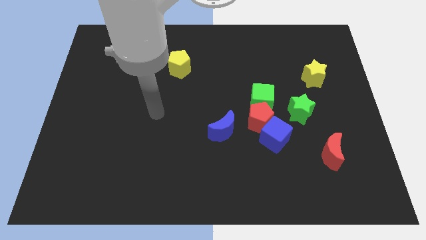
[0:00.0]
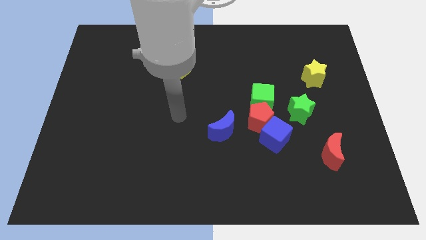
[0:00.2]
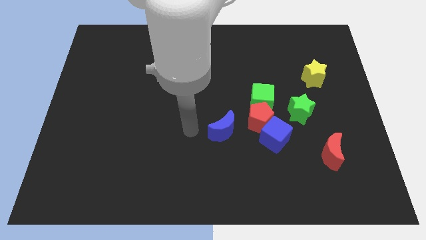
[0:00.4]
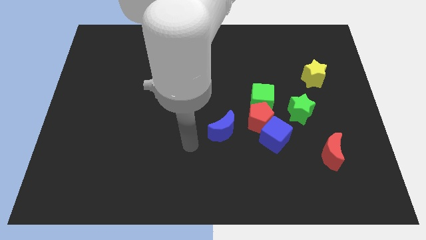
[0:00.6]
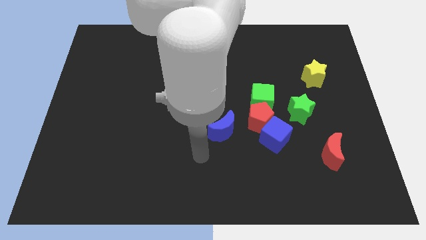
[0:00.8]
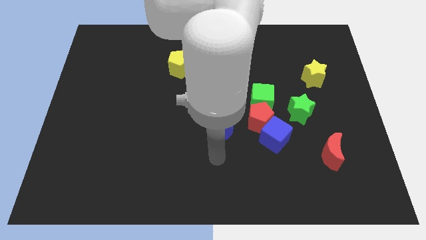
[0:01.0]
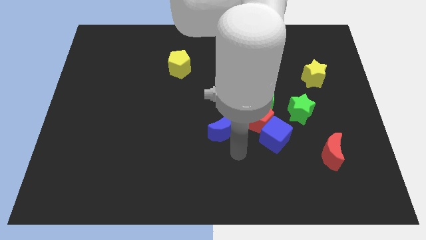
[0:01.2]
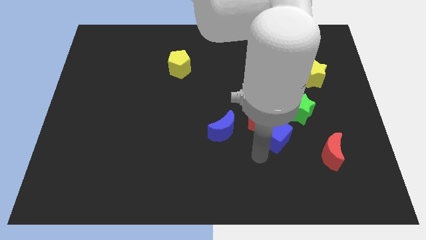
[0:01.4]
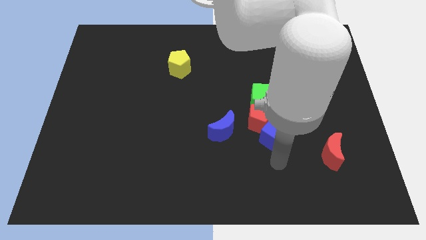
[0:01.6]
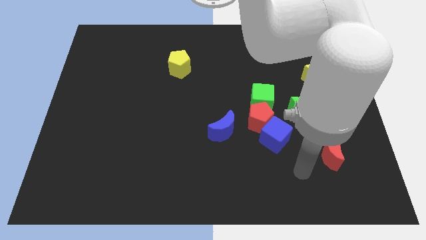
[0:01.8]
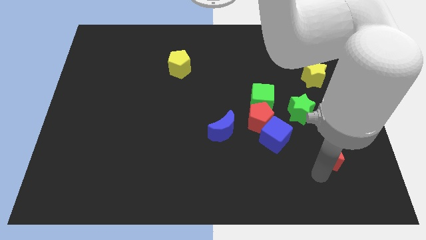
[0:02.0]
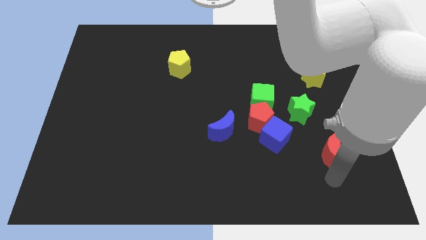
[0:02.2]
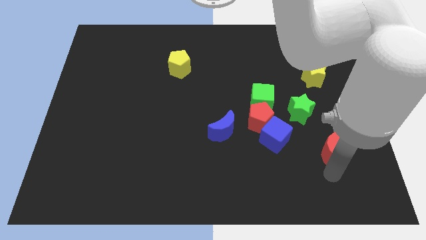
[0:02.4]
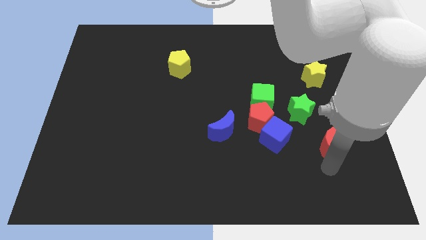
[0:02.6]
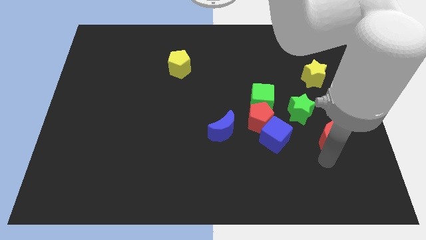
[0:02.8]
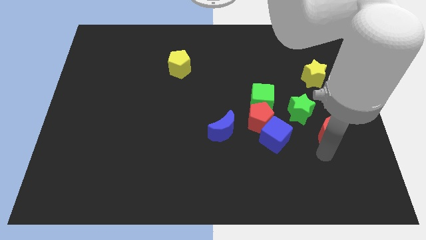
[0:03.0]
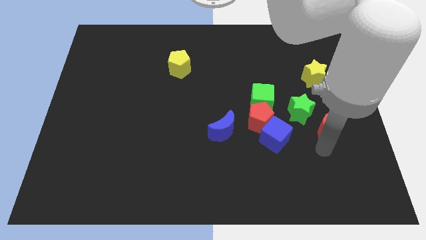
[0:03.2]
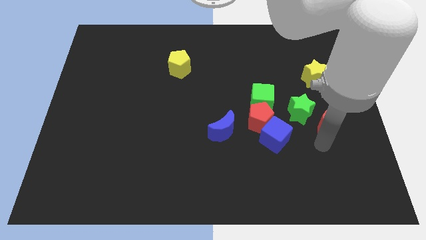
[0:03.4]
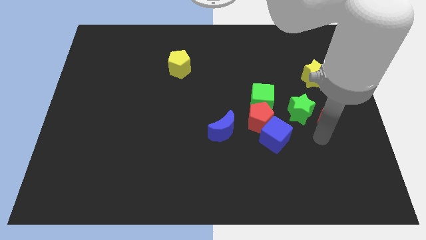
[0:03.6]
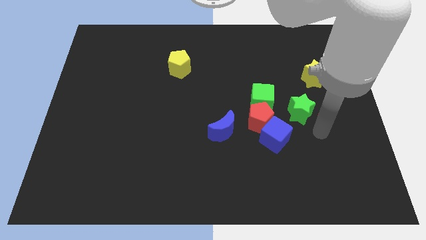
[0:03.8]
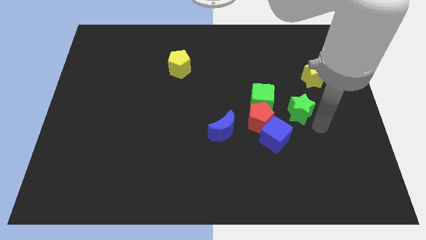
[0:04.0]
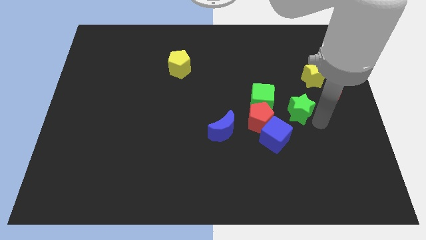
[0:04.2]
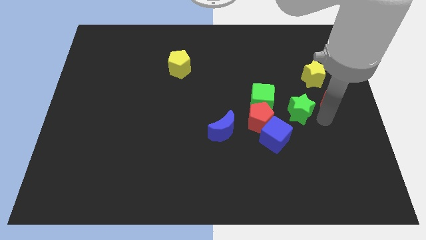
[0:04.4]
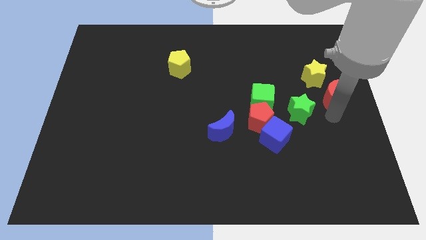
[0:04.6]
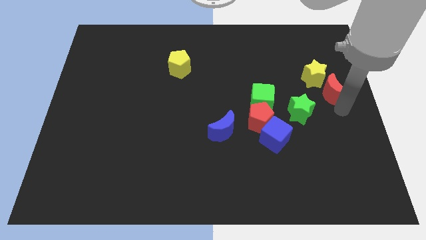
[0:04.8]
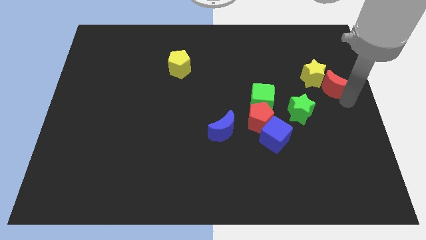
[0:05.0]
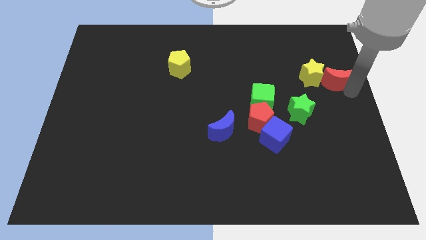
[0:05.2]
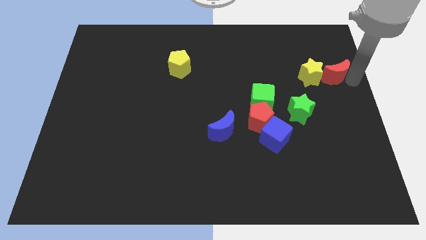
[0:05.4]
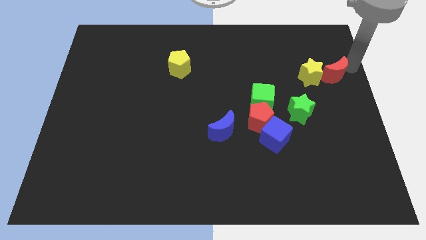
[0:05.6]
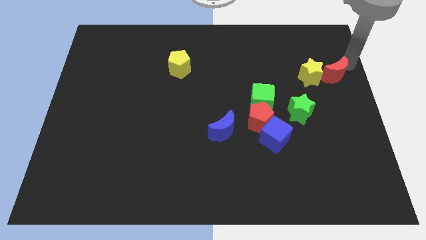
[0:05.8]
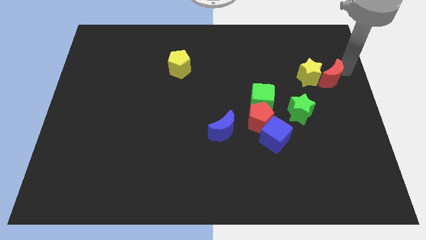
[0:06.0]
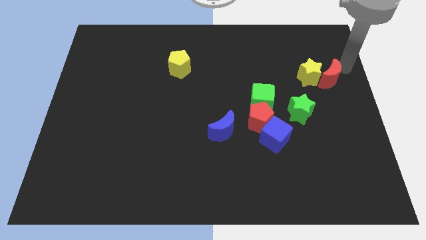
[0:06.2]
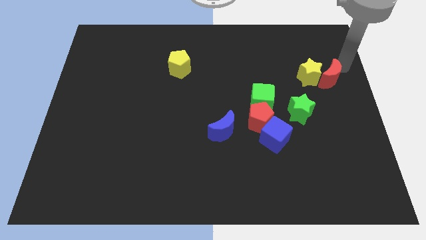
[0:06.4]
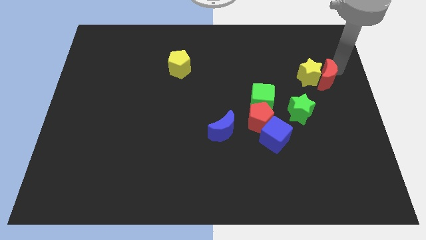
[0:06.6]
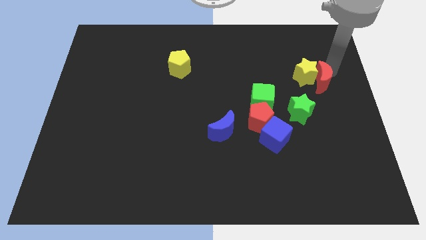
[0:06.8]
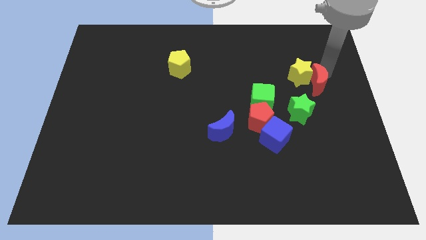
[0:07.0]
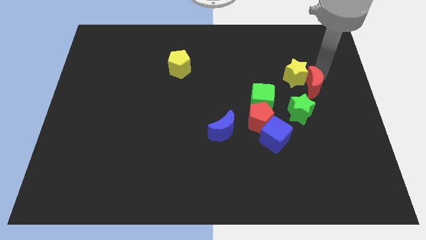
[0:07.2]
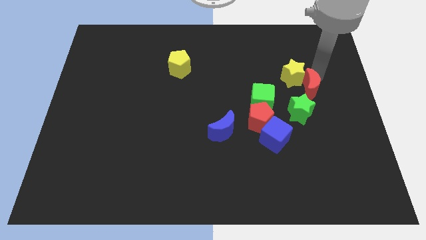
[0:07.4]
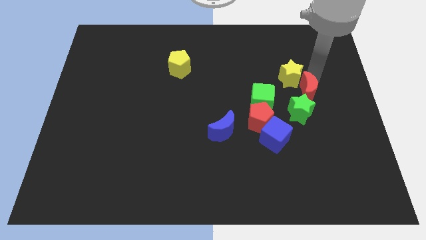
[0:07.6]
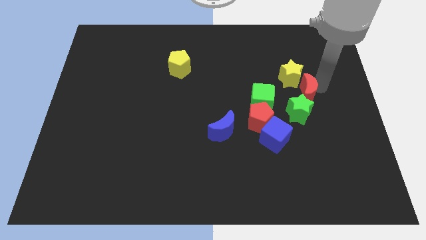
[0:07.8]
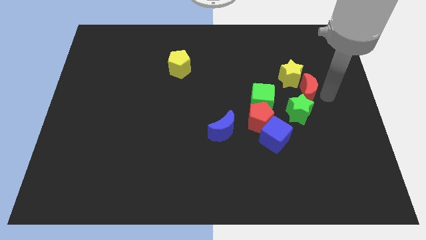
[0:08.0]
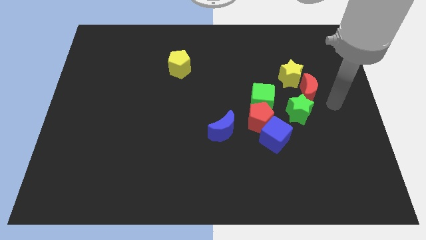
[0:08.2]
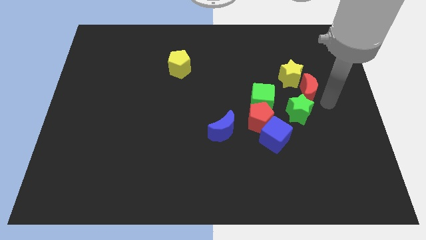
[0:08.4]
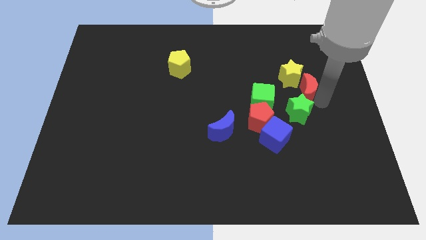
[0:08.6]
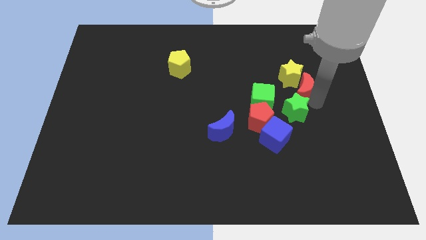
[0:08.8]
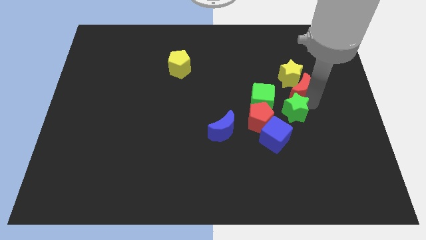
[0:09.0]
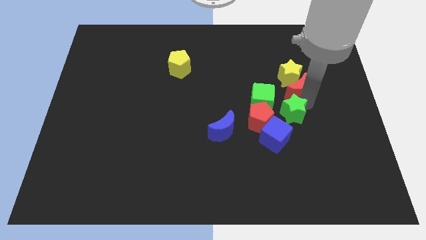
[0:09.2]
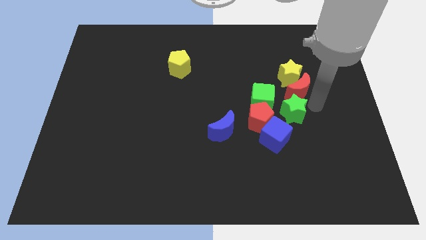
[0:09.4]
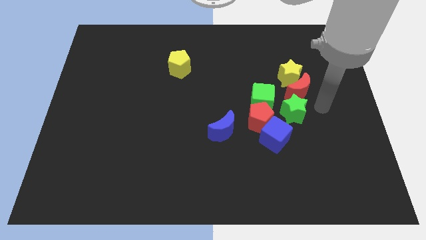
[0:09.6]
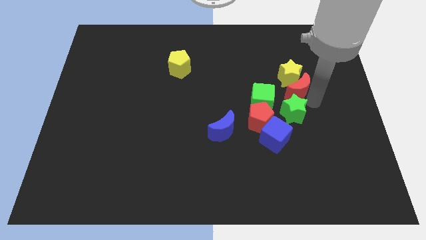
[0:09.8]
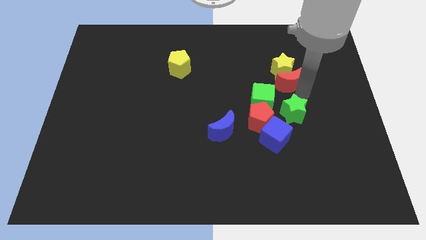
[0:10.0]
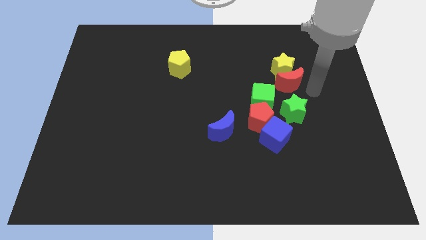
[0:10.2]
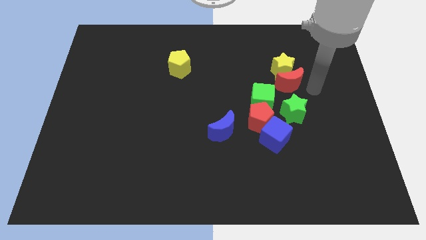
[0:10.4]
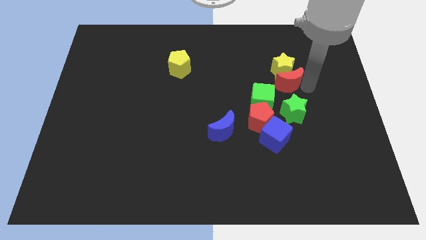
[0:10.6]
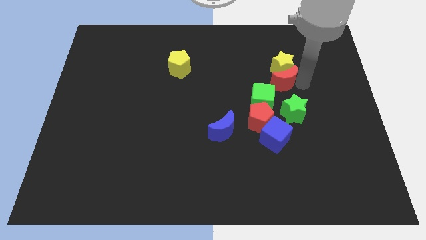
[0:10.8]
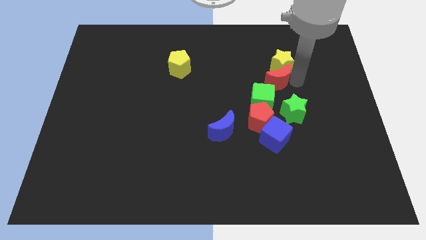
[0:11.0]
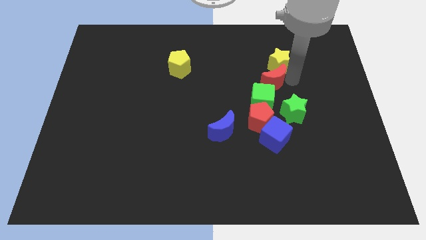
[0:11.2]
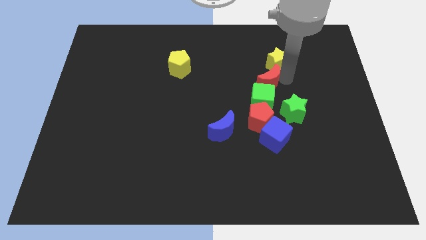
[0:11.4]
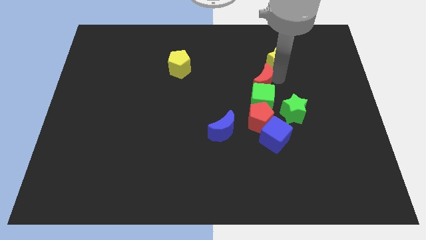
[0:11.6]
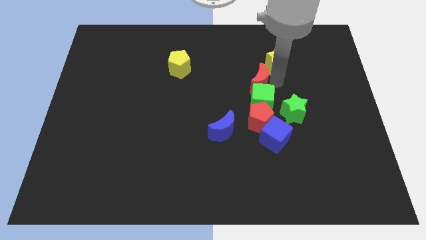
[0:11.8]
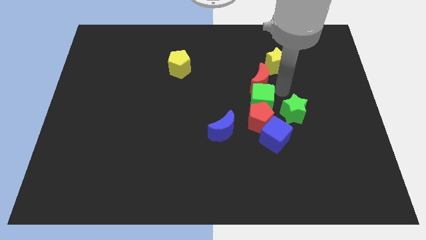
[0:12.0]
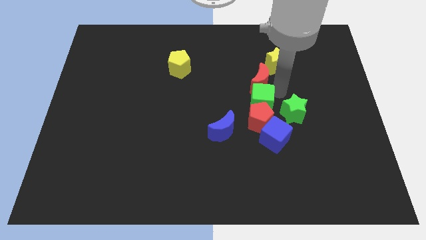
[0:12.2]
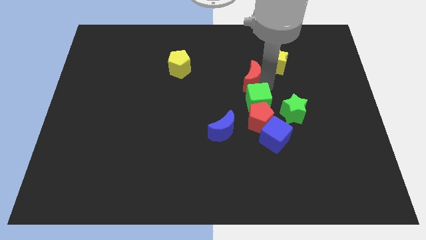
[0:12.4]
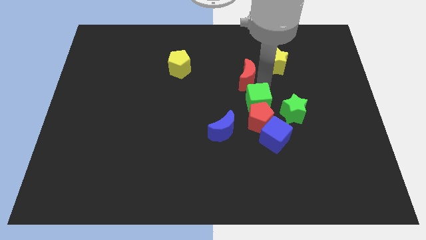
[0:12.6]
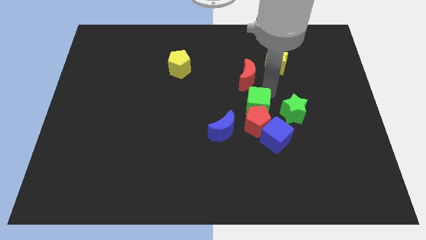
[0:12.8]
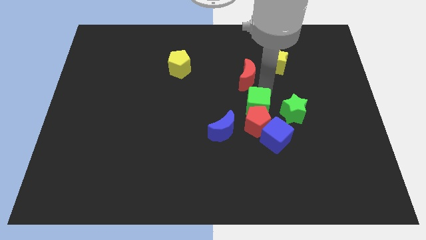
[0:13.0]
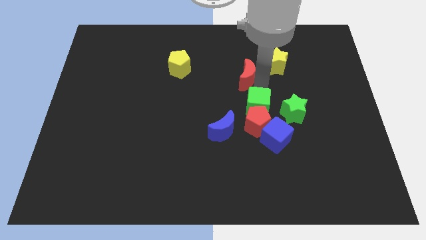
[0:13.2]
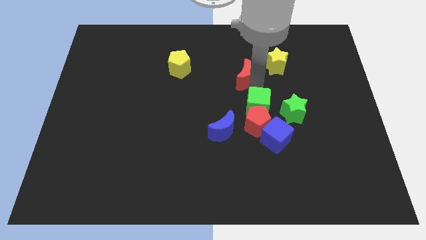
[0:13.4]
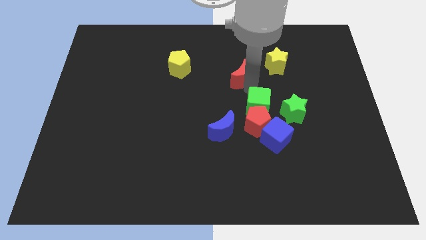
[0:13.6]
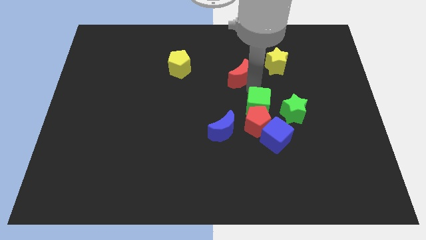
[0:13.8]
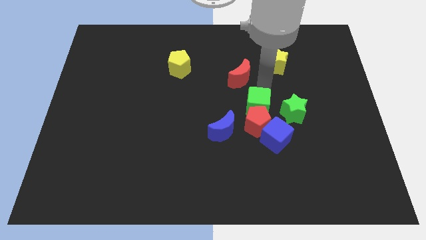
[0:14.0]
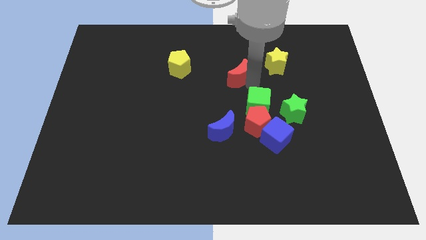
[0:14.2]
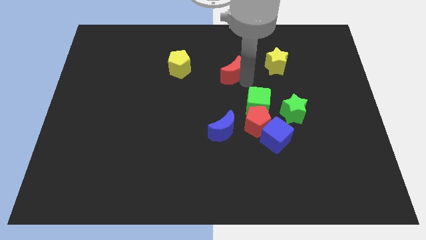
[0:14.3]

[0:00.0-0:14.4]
put the red moon to the right of the yellow pentagon

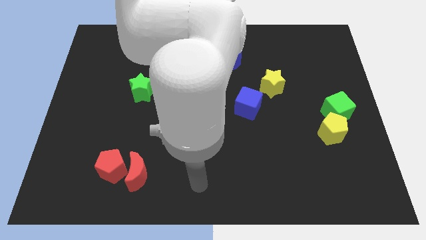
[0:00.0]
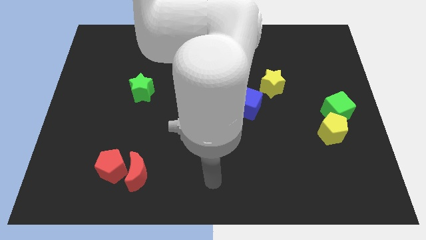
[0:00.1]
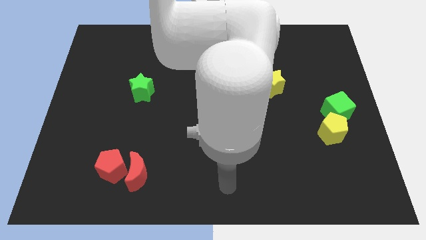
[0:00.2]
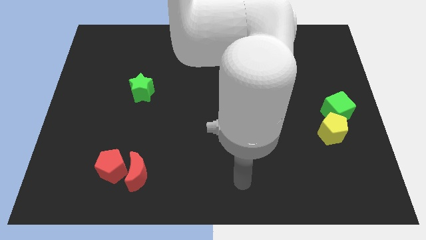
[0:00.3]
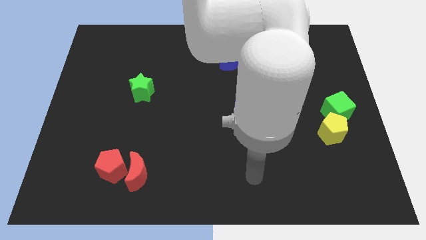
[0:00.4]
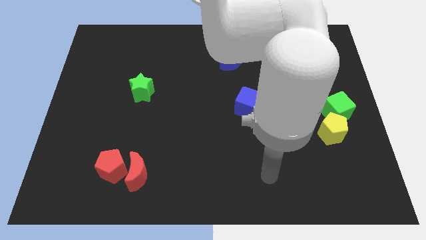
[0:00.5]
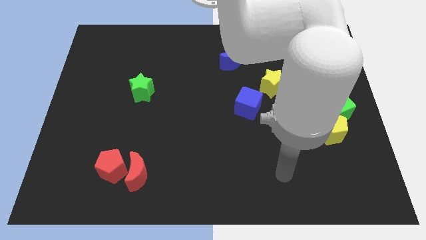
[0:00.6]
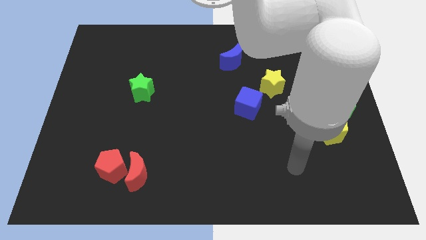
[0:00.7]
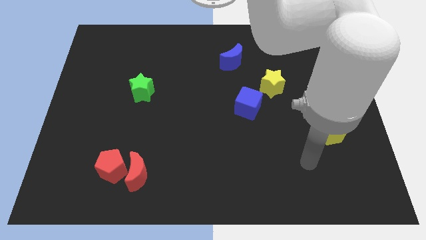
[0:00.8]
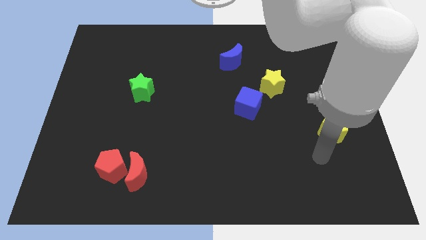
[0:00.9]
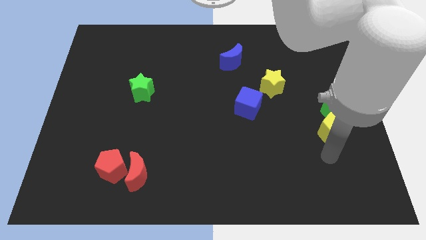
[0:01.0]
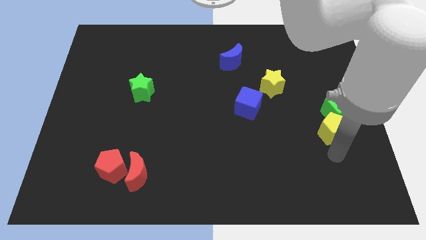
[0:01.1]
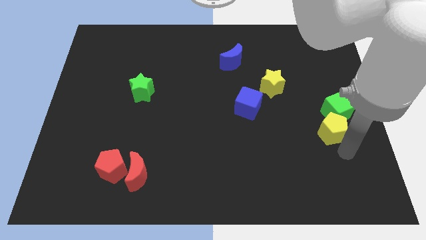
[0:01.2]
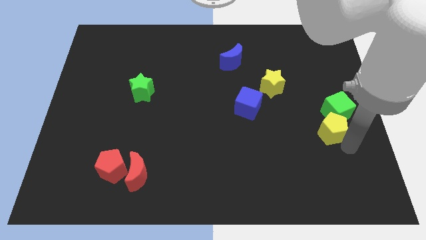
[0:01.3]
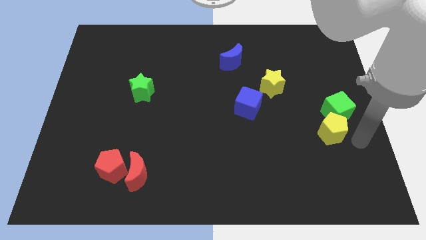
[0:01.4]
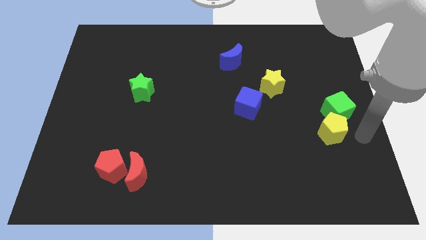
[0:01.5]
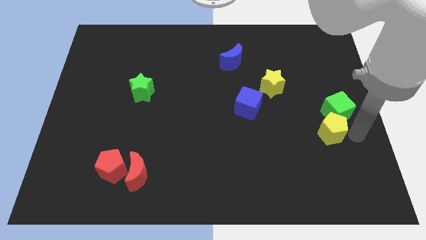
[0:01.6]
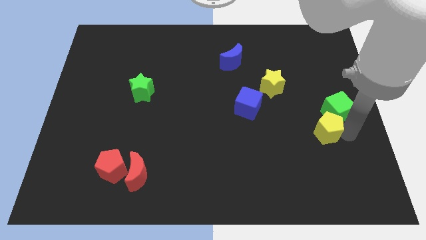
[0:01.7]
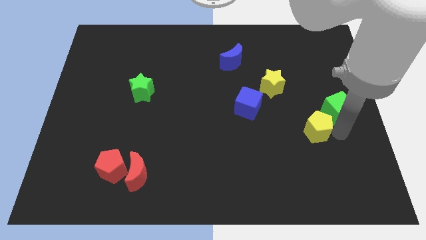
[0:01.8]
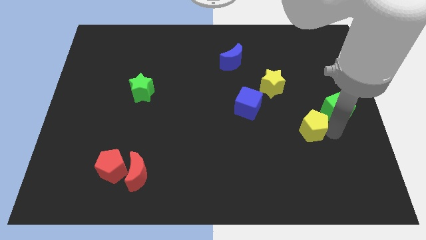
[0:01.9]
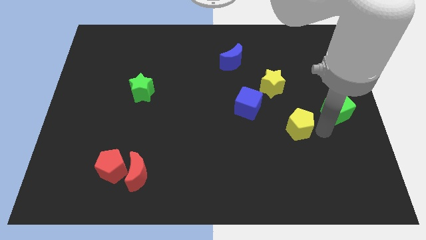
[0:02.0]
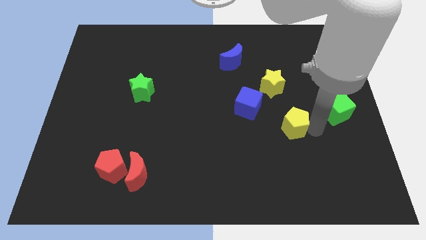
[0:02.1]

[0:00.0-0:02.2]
move the yellow pentagon to the bottom right side of the blue cube
